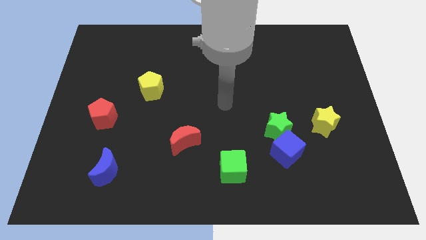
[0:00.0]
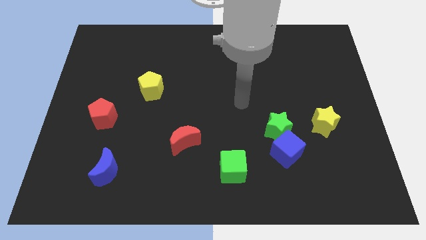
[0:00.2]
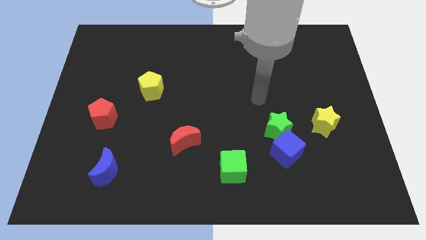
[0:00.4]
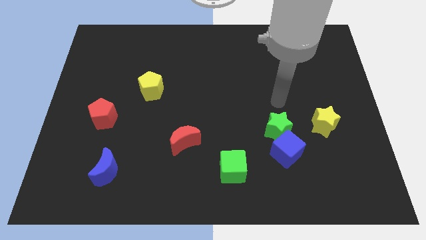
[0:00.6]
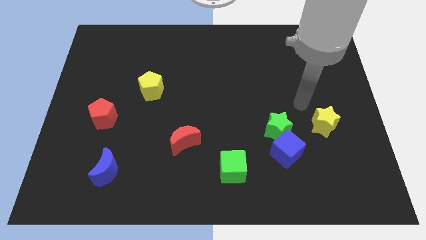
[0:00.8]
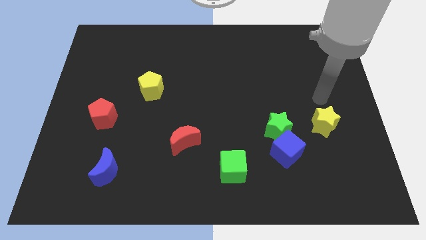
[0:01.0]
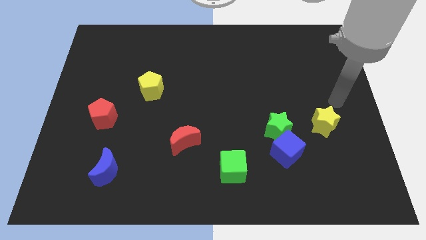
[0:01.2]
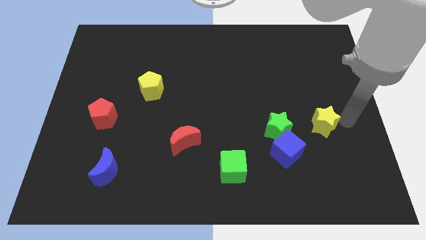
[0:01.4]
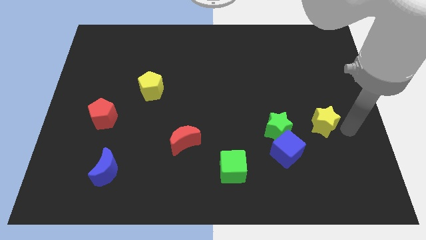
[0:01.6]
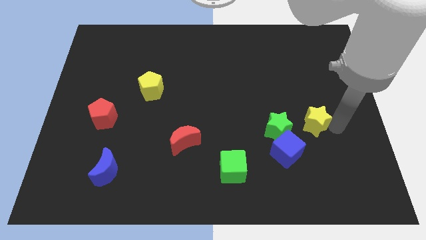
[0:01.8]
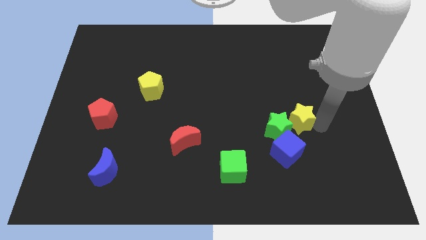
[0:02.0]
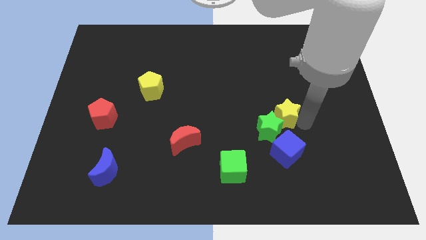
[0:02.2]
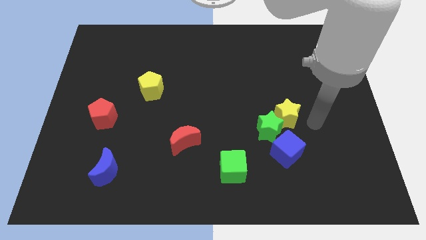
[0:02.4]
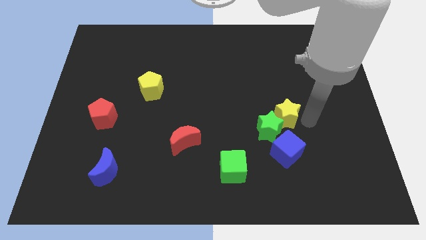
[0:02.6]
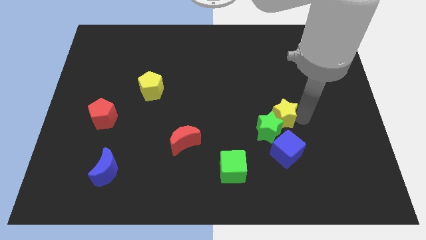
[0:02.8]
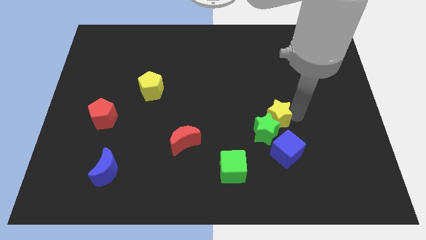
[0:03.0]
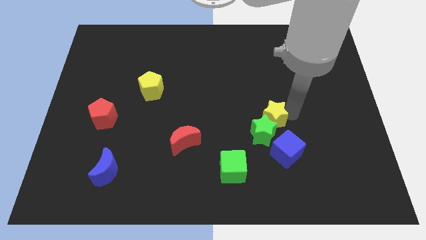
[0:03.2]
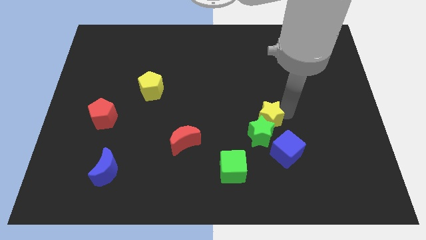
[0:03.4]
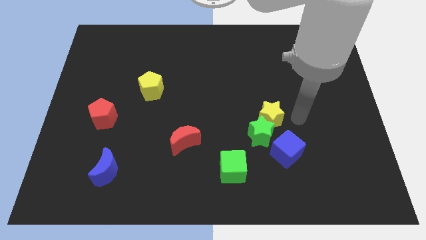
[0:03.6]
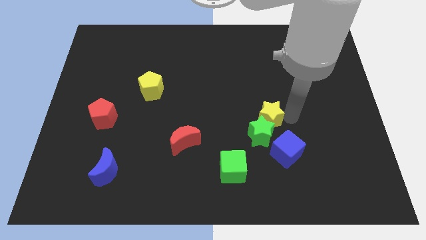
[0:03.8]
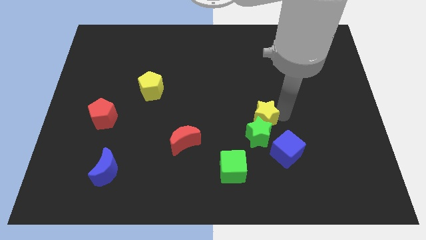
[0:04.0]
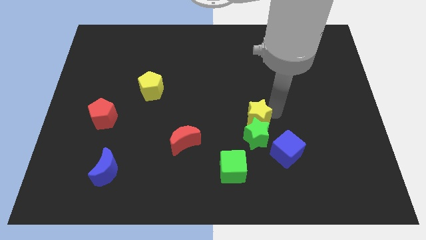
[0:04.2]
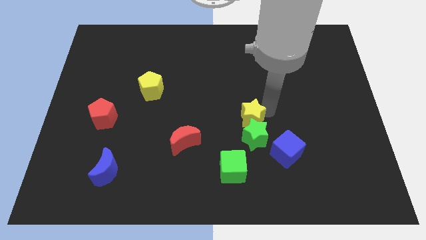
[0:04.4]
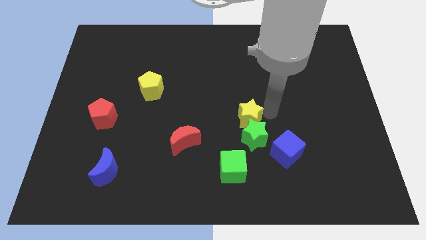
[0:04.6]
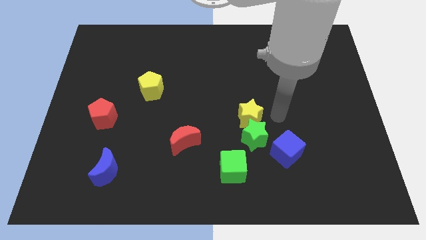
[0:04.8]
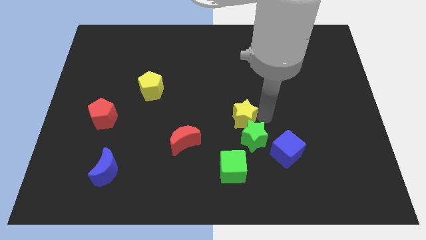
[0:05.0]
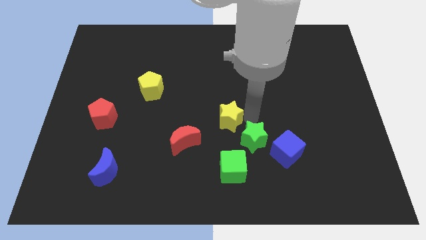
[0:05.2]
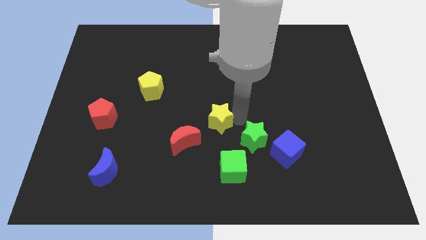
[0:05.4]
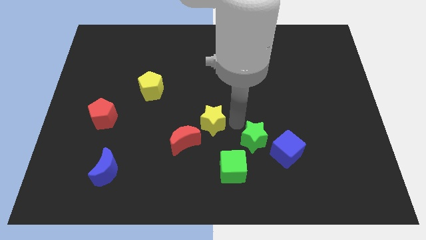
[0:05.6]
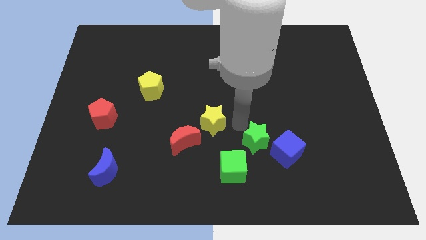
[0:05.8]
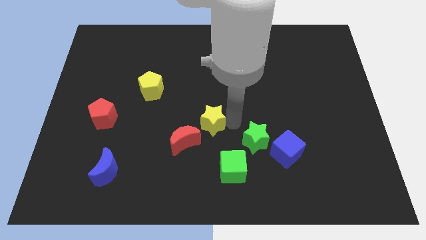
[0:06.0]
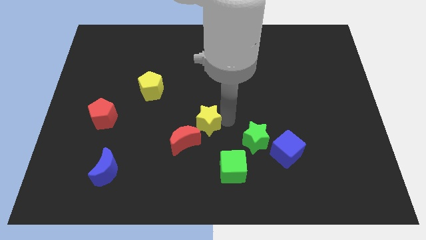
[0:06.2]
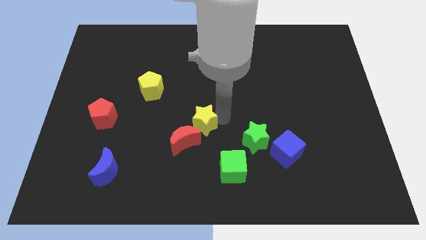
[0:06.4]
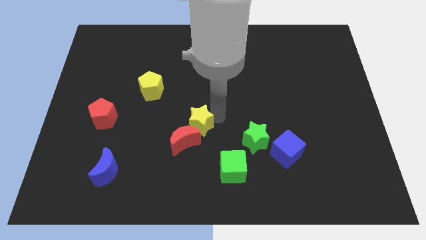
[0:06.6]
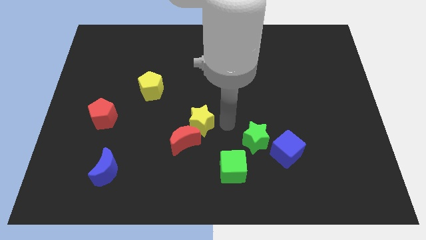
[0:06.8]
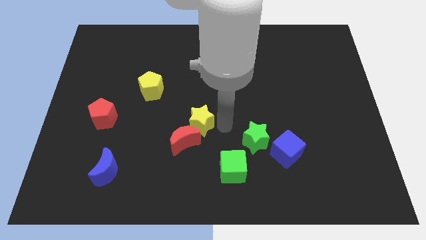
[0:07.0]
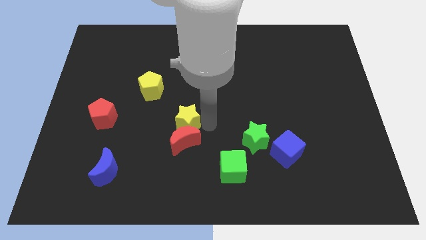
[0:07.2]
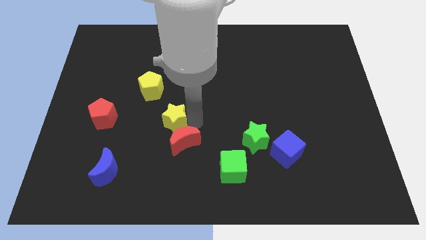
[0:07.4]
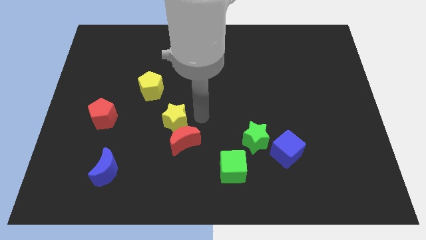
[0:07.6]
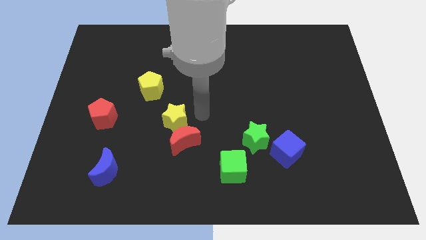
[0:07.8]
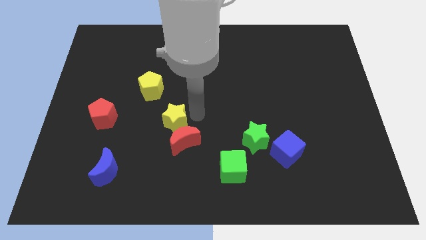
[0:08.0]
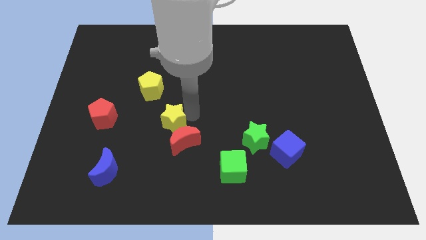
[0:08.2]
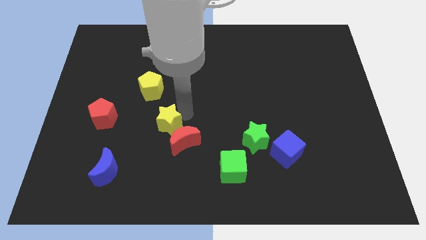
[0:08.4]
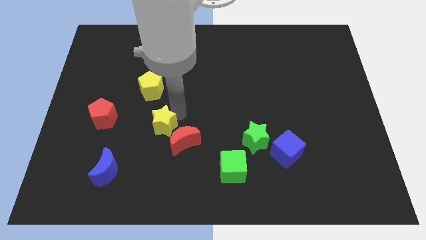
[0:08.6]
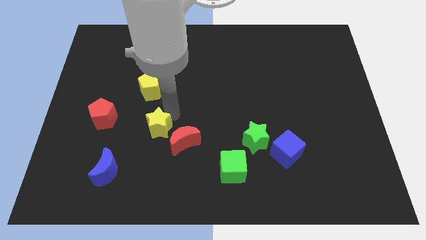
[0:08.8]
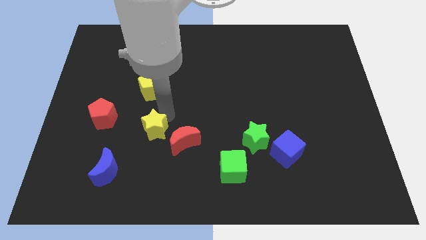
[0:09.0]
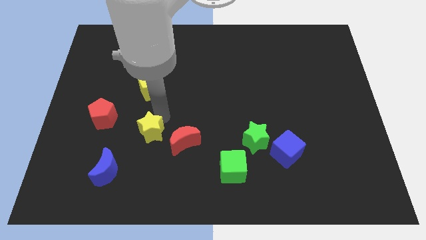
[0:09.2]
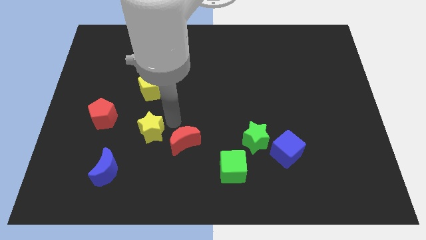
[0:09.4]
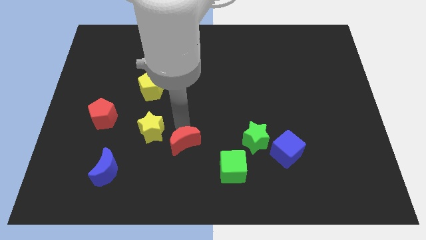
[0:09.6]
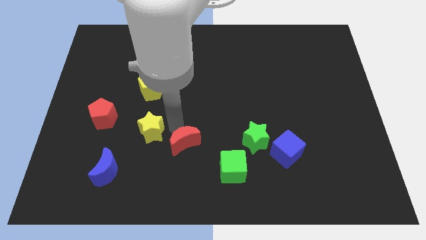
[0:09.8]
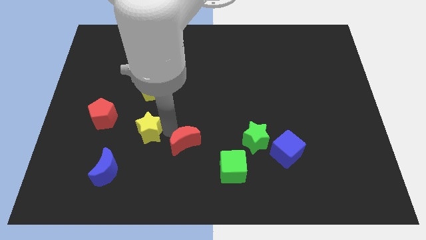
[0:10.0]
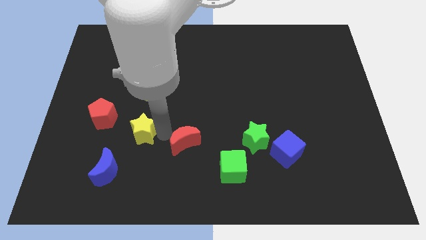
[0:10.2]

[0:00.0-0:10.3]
slide the yellow star diagonally down and to the right of the red pentagon

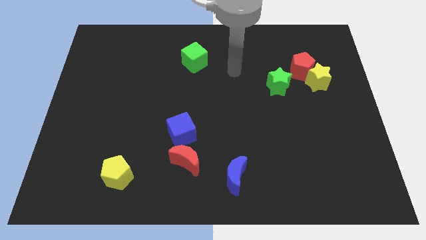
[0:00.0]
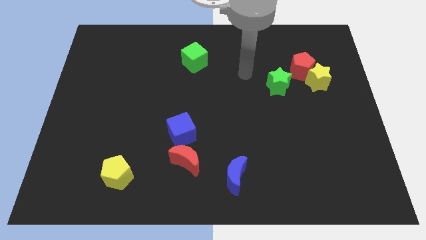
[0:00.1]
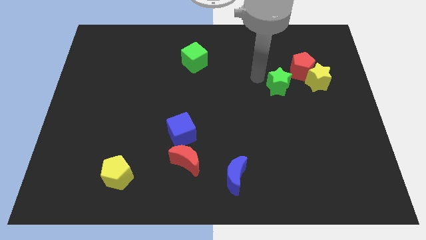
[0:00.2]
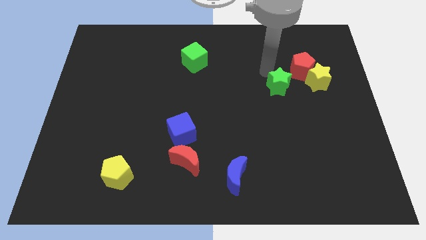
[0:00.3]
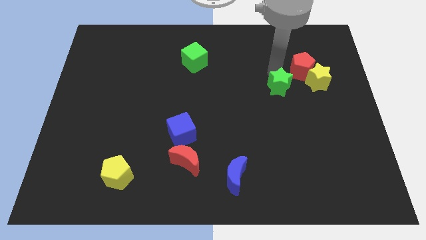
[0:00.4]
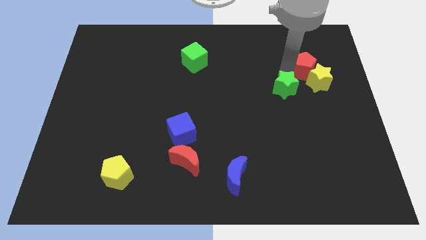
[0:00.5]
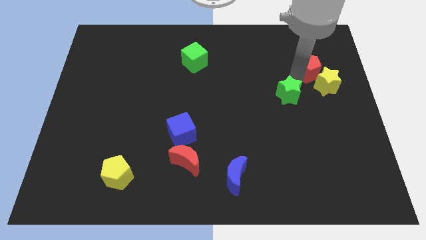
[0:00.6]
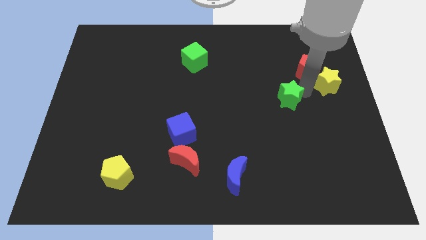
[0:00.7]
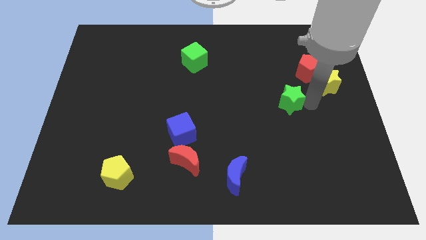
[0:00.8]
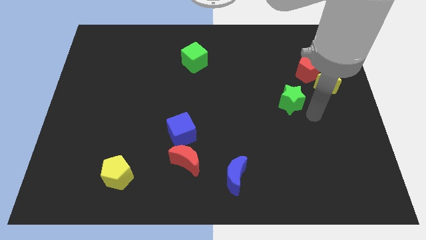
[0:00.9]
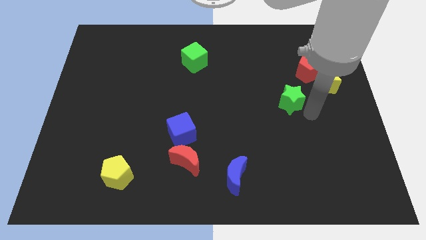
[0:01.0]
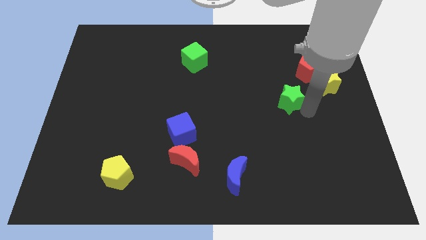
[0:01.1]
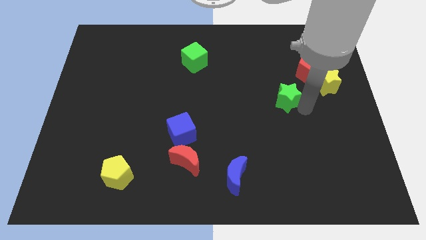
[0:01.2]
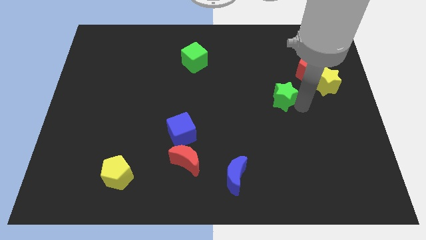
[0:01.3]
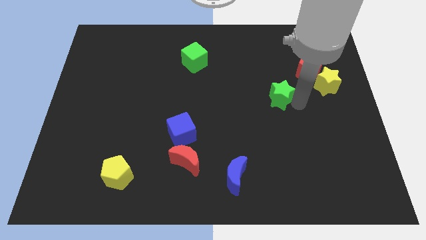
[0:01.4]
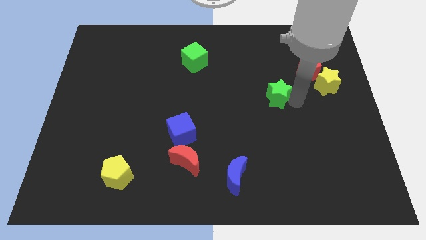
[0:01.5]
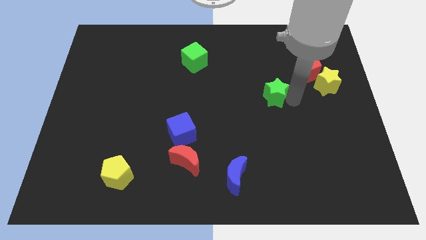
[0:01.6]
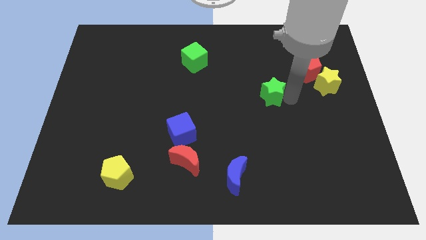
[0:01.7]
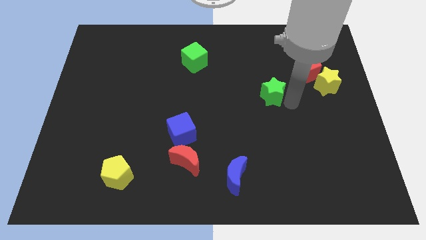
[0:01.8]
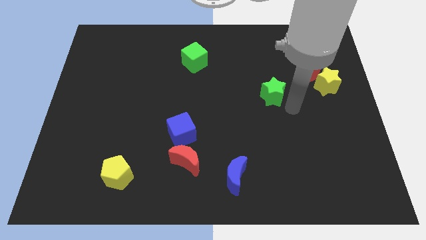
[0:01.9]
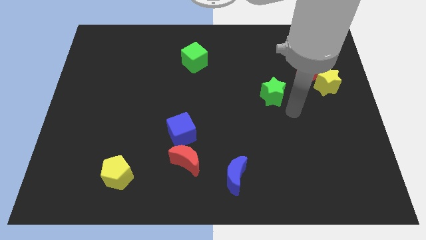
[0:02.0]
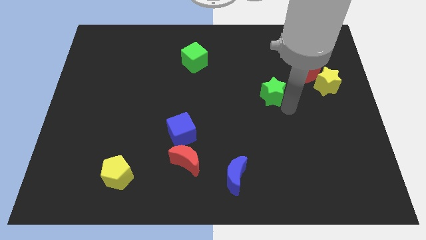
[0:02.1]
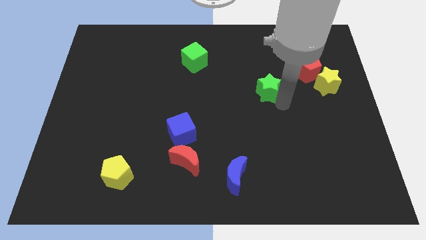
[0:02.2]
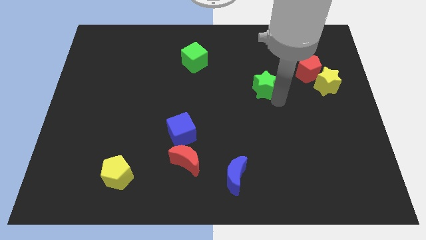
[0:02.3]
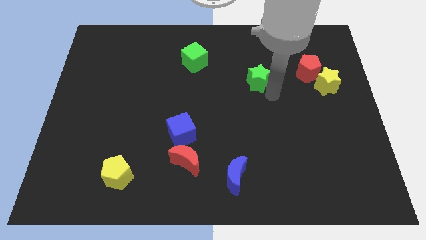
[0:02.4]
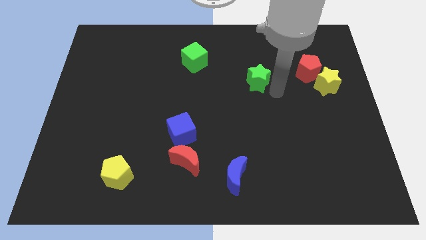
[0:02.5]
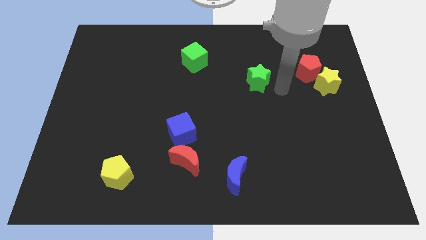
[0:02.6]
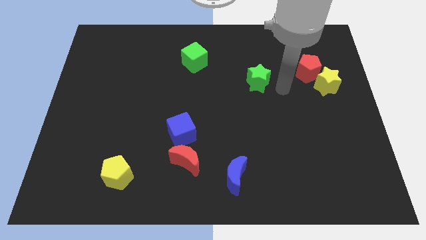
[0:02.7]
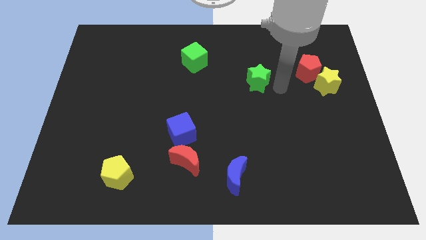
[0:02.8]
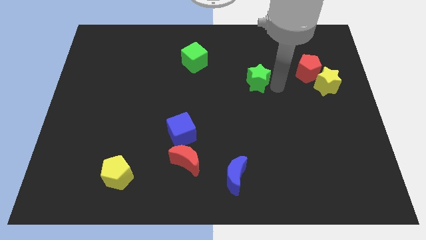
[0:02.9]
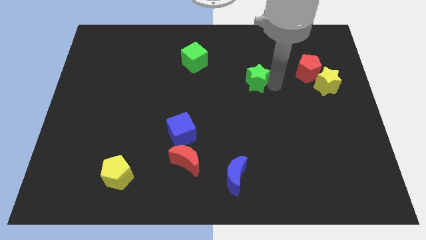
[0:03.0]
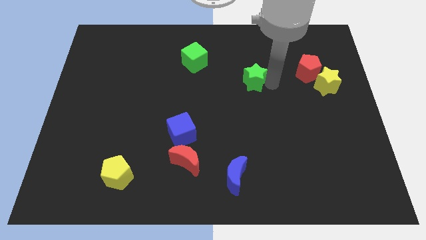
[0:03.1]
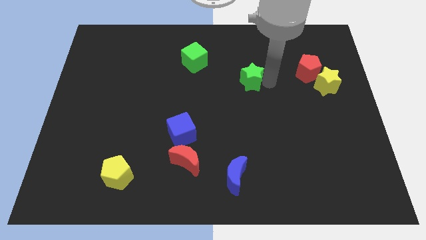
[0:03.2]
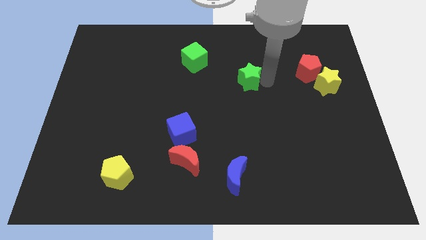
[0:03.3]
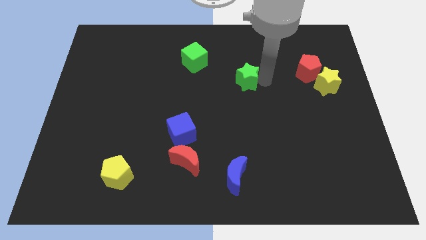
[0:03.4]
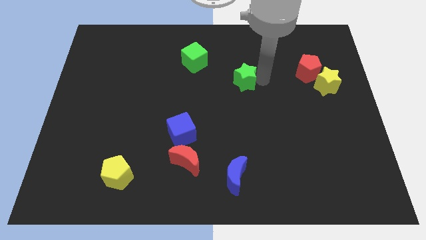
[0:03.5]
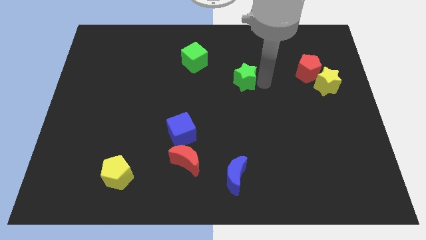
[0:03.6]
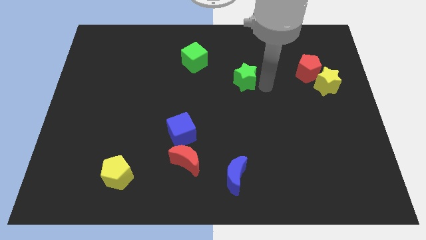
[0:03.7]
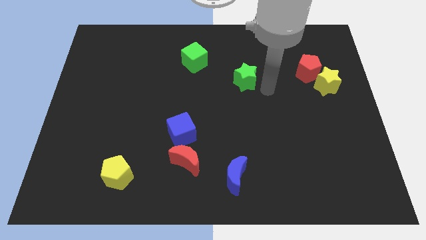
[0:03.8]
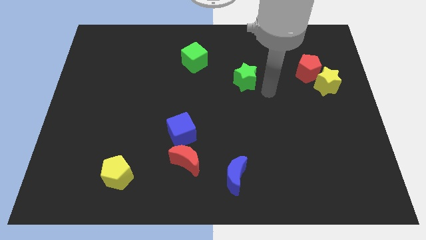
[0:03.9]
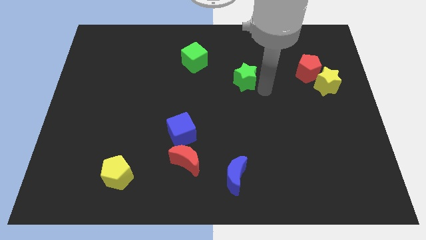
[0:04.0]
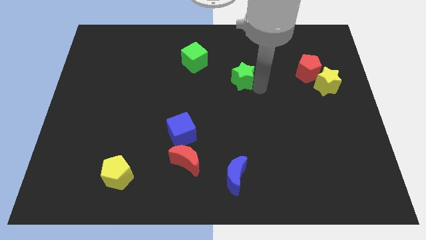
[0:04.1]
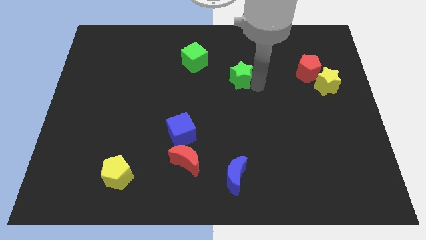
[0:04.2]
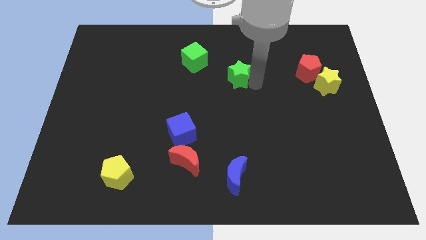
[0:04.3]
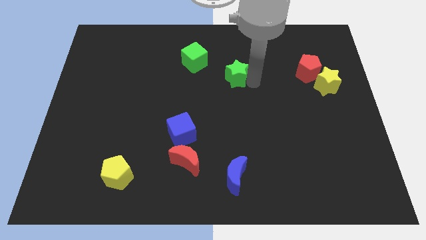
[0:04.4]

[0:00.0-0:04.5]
push the green star diagonally down and to the right of the green cube
